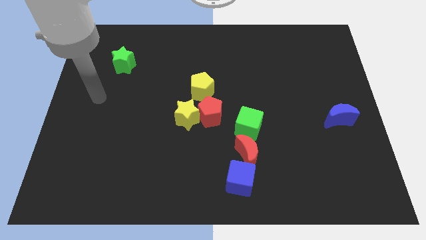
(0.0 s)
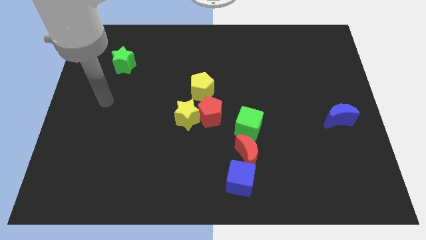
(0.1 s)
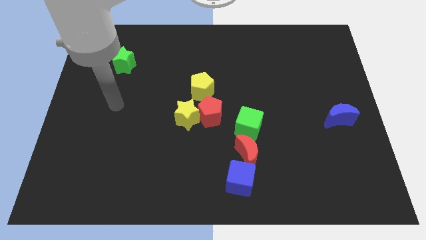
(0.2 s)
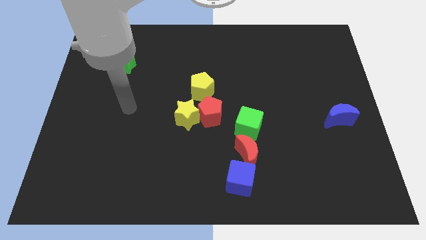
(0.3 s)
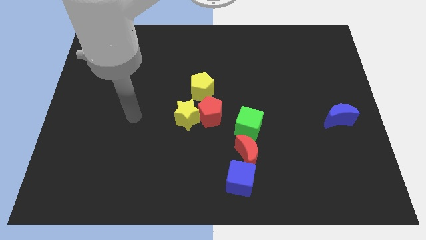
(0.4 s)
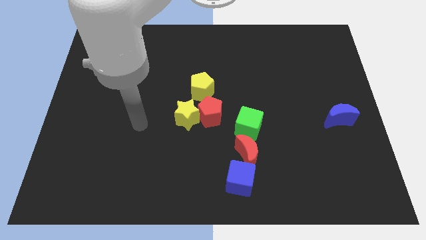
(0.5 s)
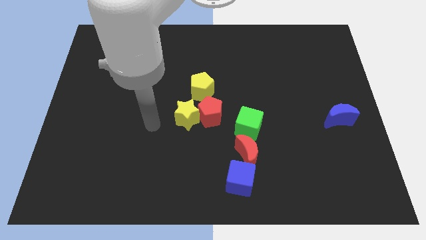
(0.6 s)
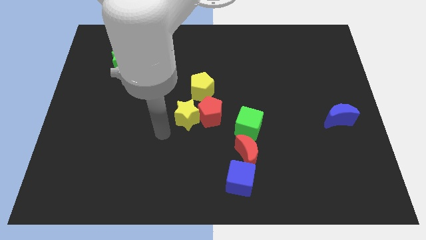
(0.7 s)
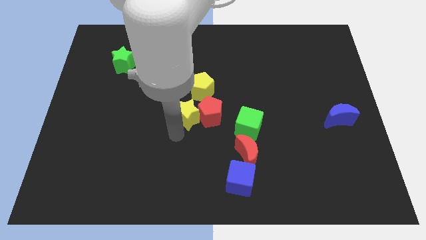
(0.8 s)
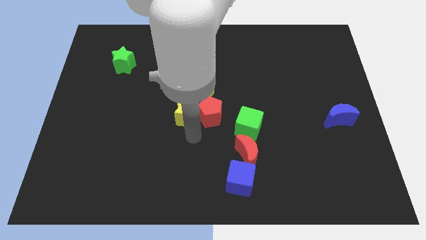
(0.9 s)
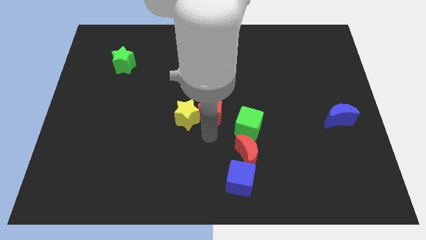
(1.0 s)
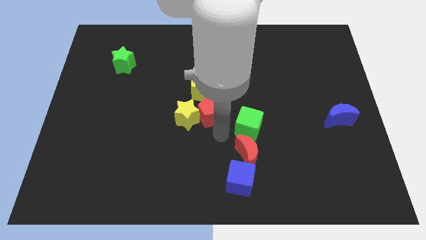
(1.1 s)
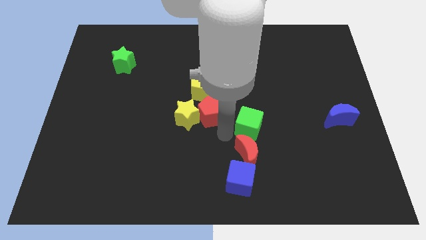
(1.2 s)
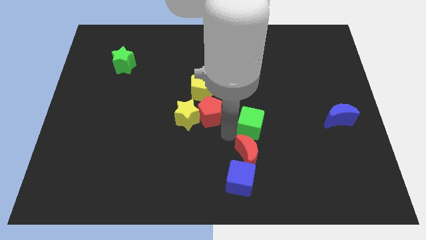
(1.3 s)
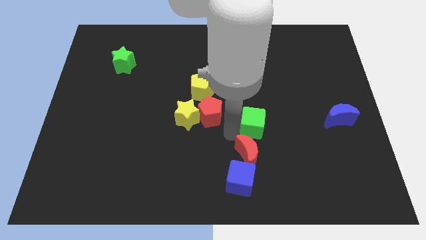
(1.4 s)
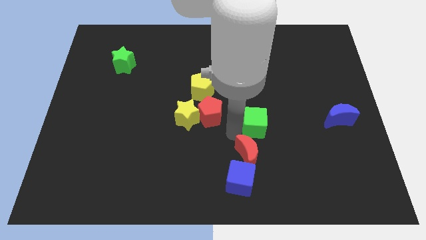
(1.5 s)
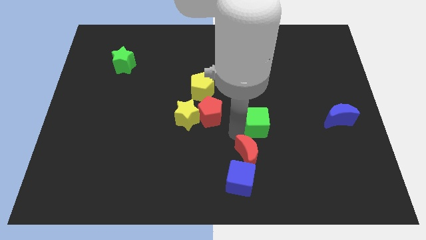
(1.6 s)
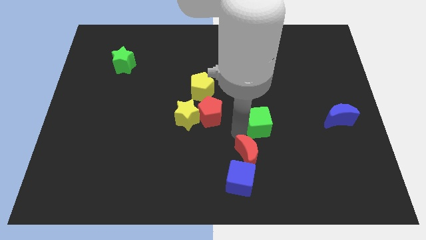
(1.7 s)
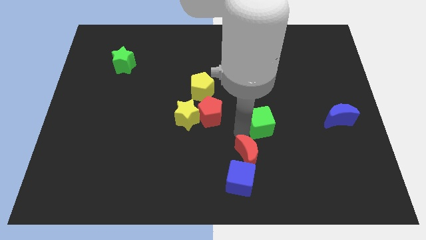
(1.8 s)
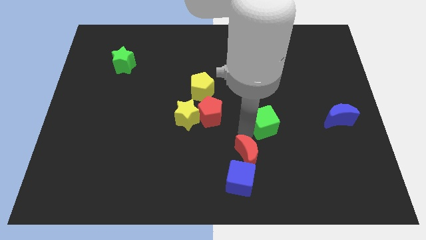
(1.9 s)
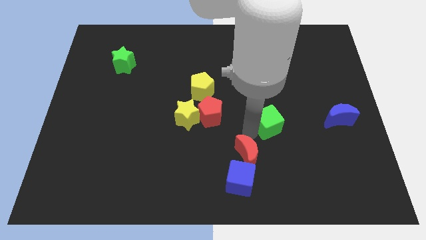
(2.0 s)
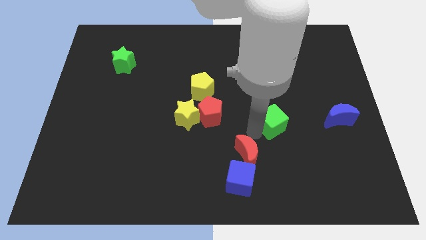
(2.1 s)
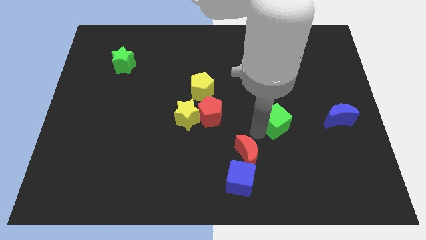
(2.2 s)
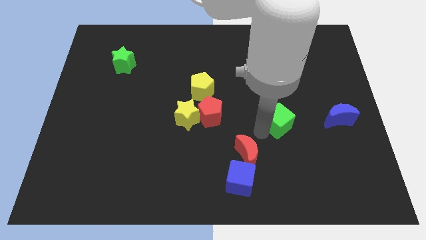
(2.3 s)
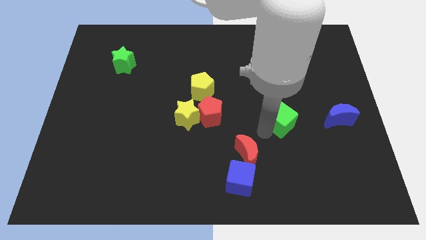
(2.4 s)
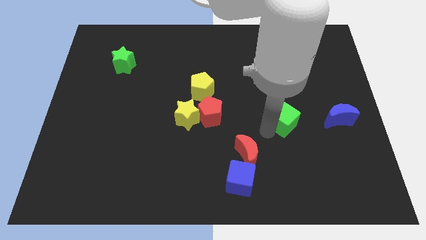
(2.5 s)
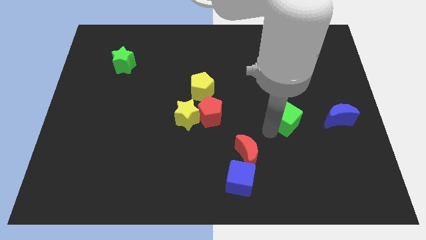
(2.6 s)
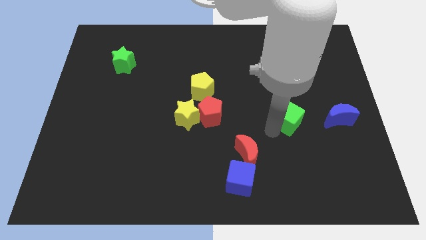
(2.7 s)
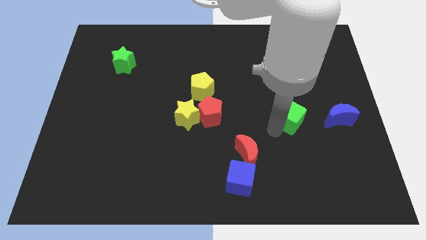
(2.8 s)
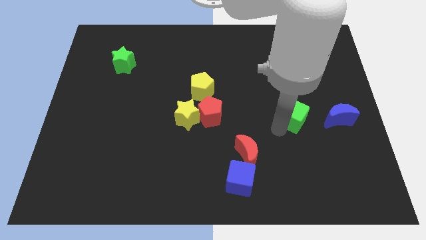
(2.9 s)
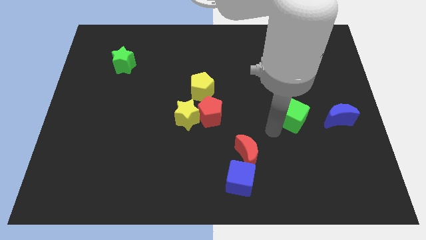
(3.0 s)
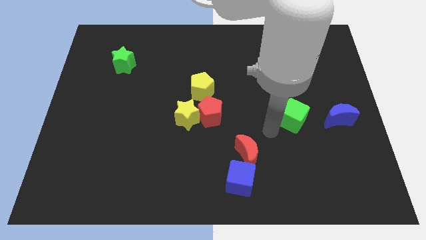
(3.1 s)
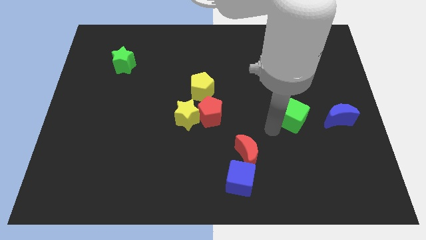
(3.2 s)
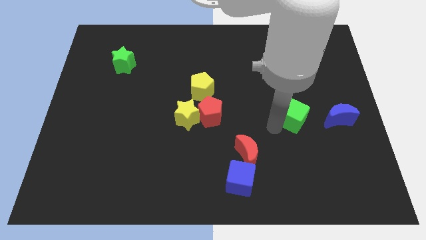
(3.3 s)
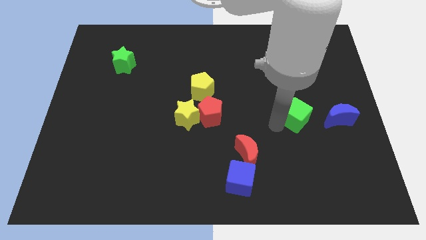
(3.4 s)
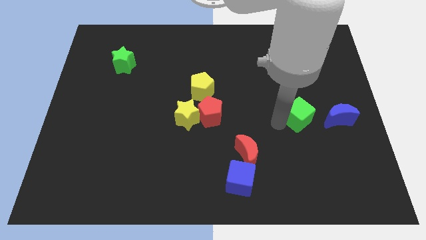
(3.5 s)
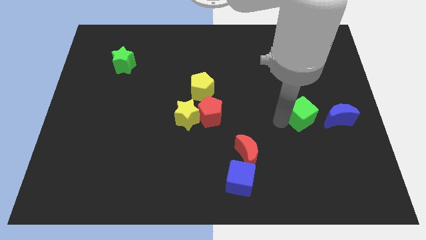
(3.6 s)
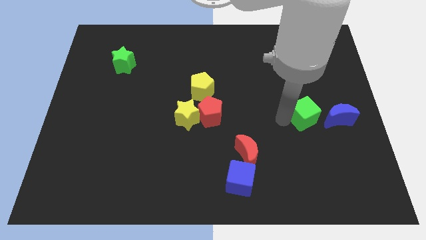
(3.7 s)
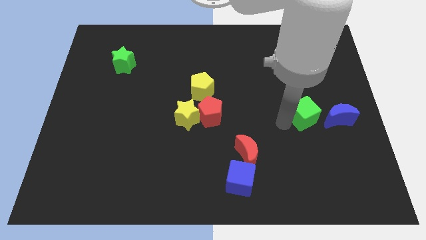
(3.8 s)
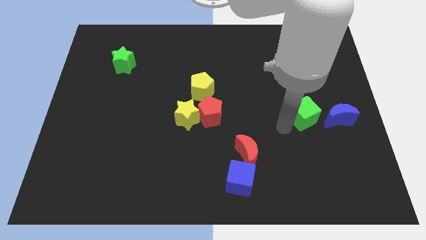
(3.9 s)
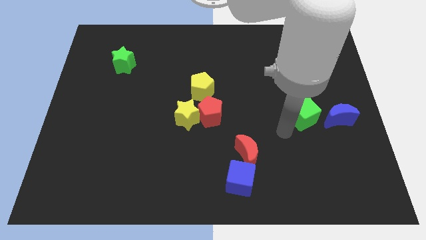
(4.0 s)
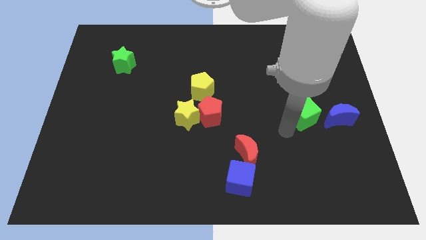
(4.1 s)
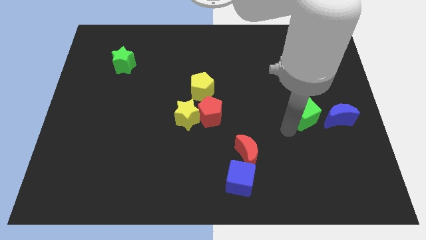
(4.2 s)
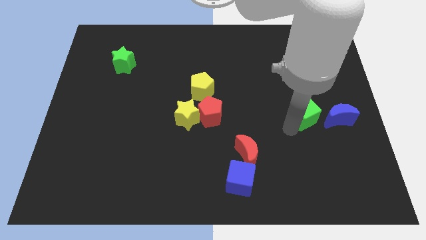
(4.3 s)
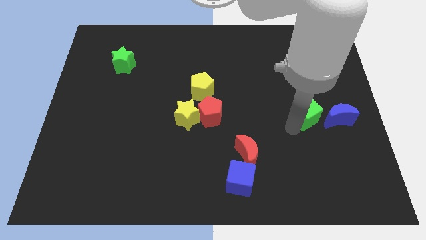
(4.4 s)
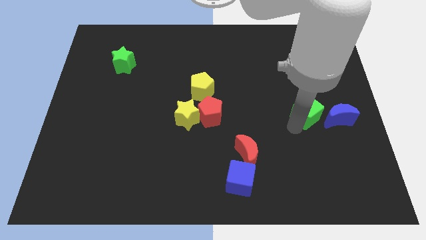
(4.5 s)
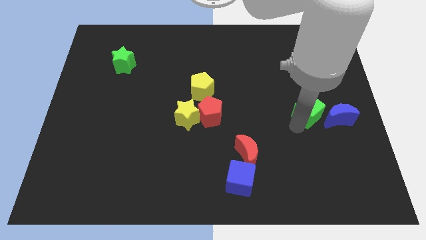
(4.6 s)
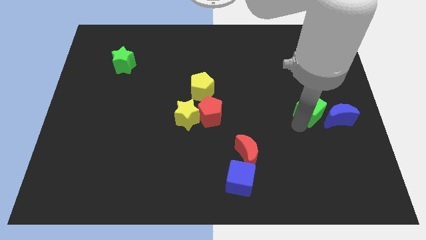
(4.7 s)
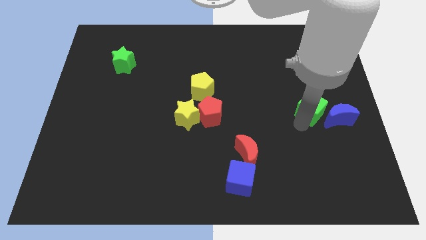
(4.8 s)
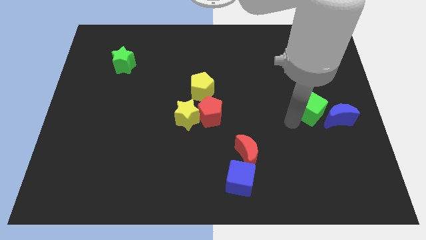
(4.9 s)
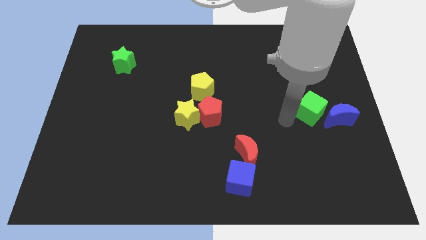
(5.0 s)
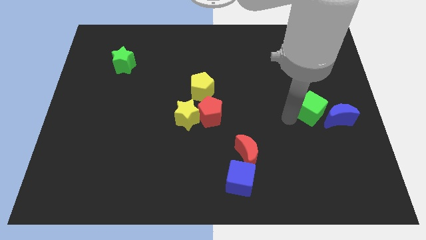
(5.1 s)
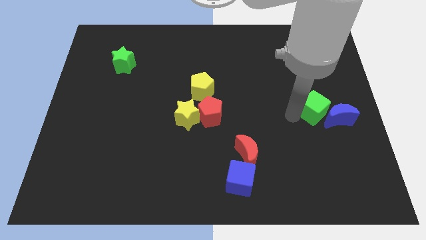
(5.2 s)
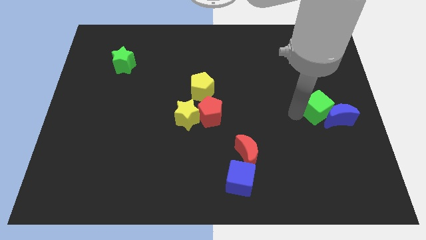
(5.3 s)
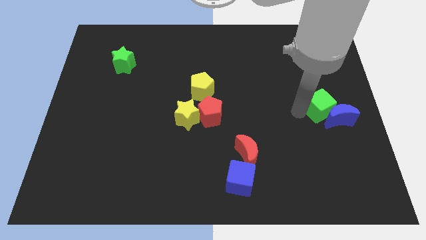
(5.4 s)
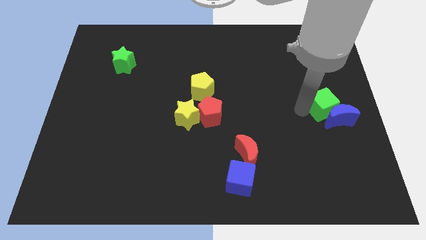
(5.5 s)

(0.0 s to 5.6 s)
move the green cube to the center right

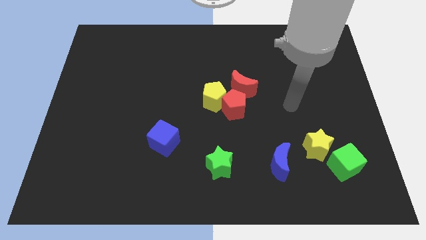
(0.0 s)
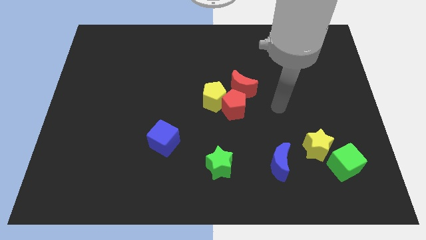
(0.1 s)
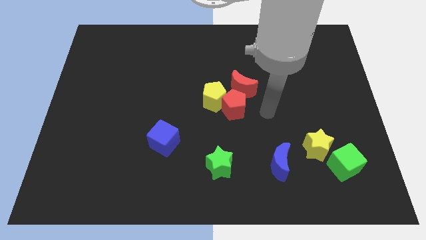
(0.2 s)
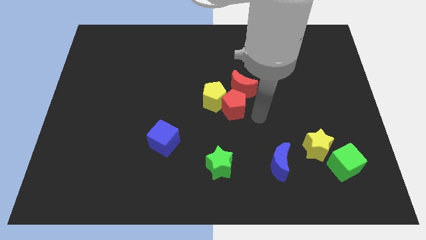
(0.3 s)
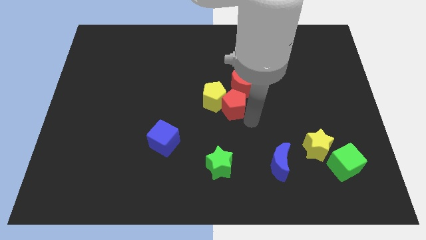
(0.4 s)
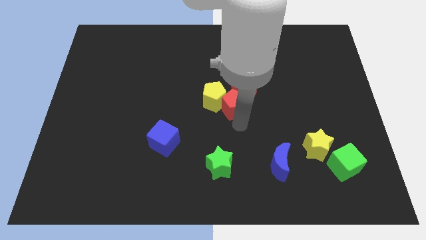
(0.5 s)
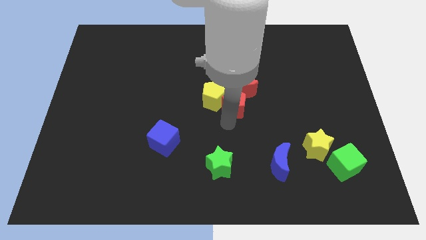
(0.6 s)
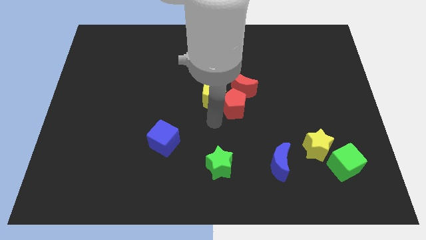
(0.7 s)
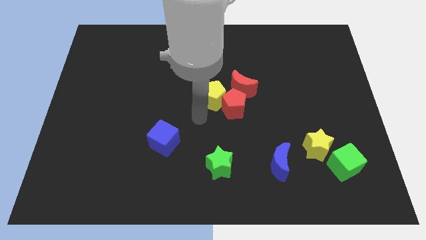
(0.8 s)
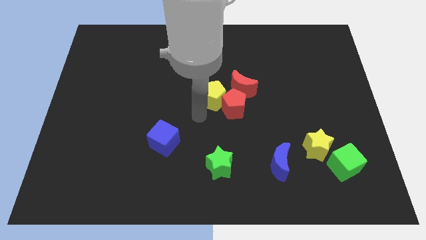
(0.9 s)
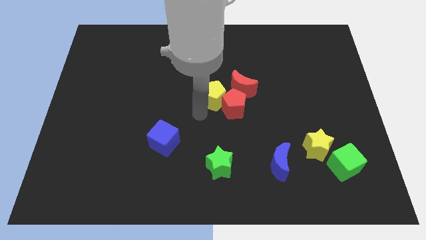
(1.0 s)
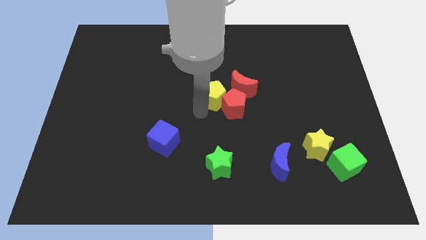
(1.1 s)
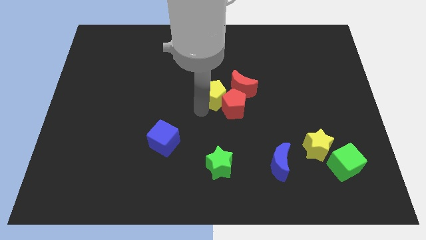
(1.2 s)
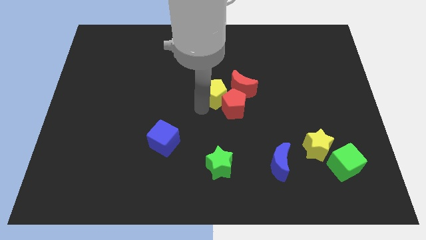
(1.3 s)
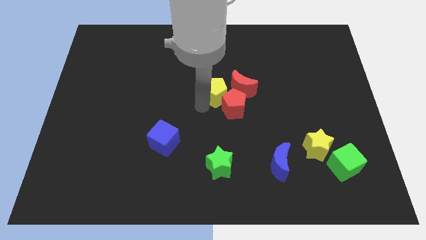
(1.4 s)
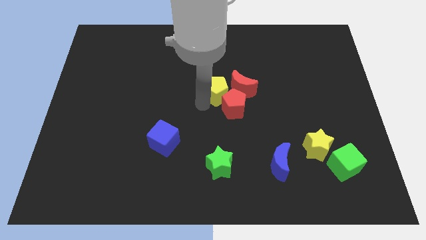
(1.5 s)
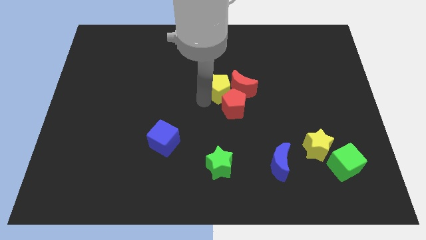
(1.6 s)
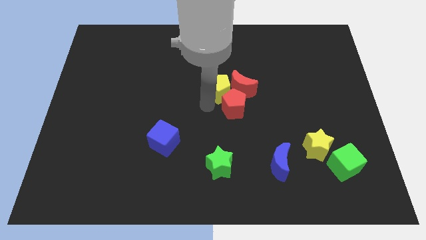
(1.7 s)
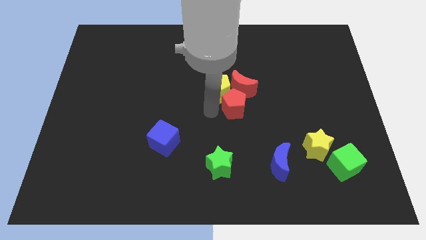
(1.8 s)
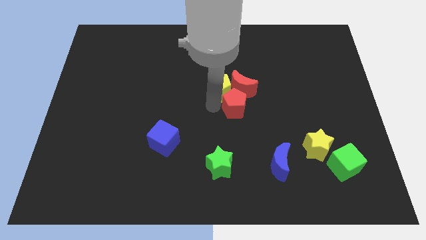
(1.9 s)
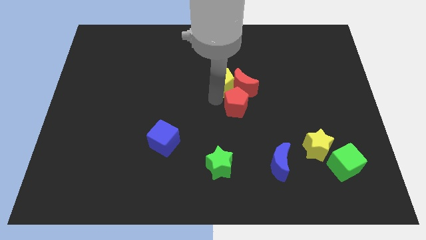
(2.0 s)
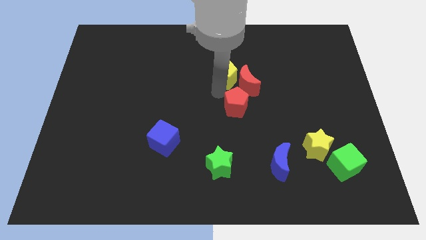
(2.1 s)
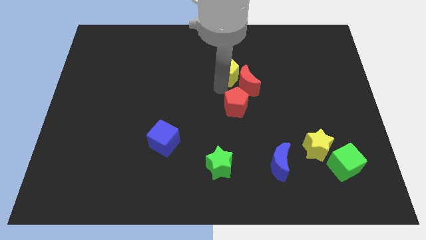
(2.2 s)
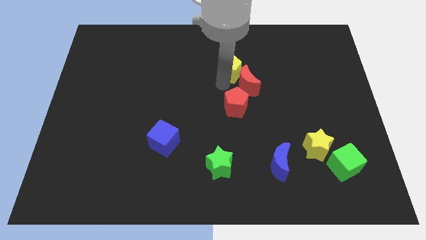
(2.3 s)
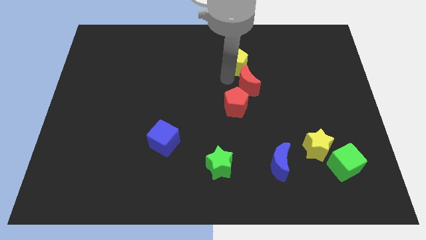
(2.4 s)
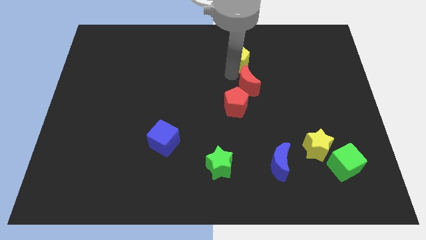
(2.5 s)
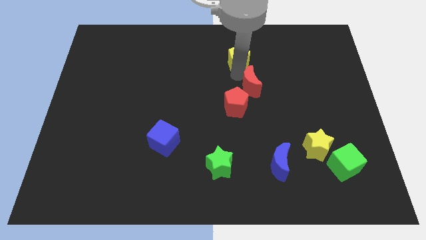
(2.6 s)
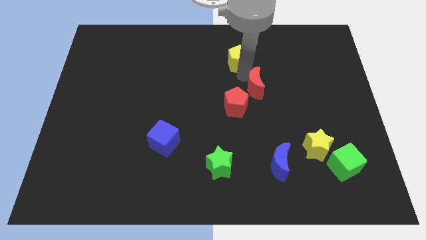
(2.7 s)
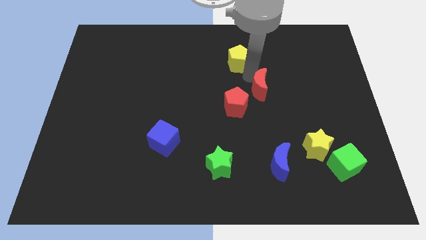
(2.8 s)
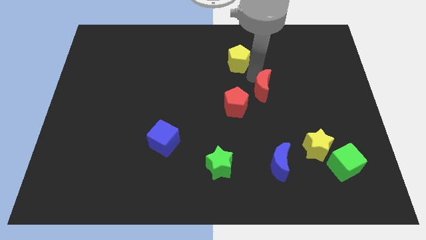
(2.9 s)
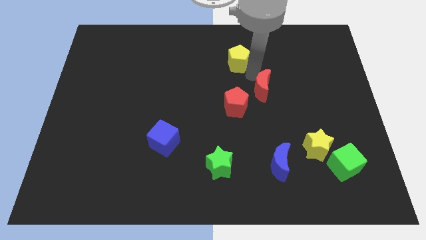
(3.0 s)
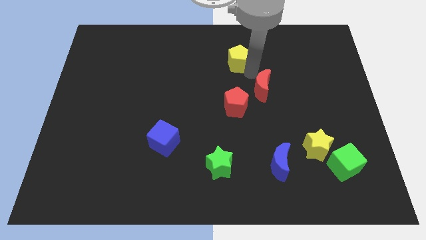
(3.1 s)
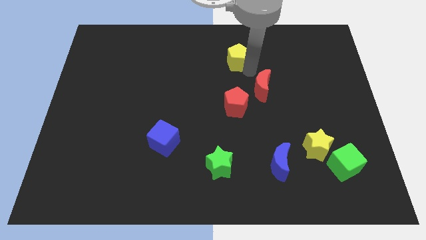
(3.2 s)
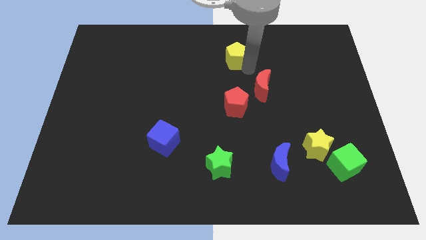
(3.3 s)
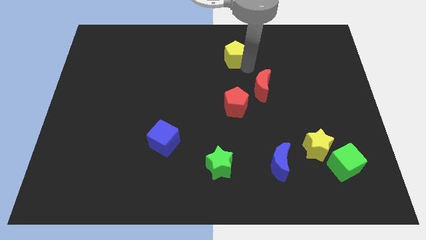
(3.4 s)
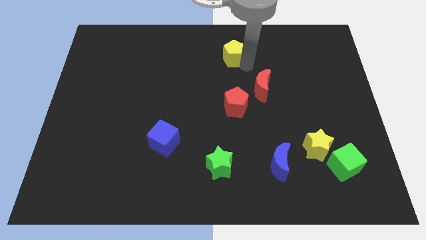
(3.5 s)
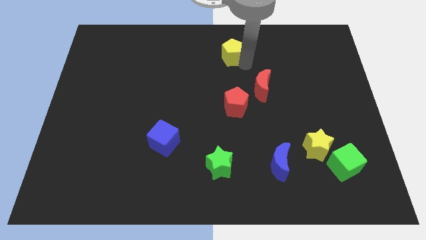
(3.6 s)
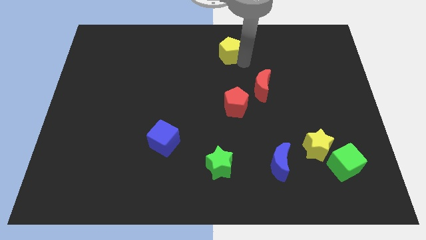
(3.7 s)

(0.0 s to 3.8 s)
put the yellow pentagon to the towards your base
